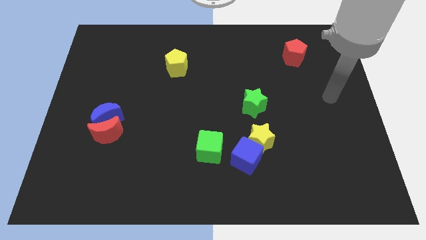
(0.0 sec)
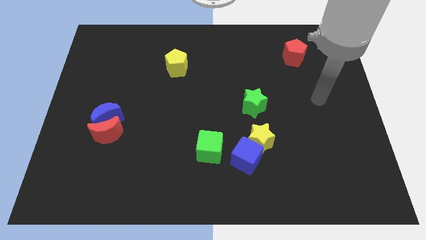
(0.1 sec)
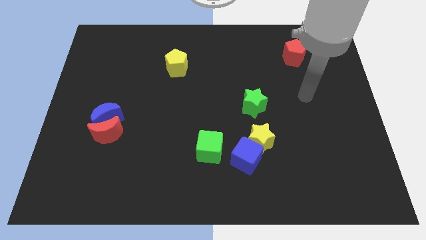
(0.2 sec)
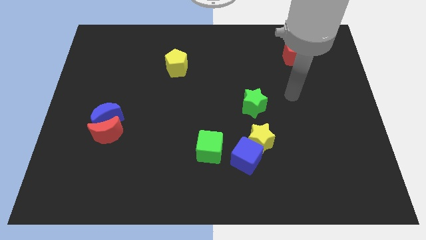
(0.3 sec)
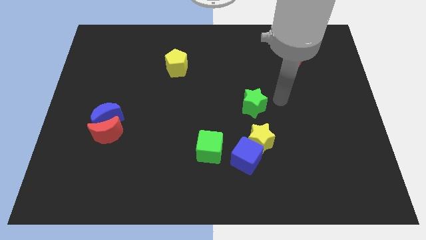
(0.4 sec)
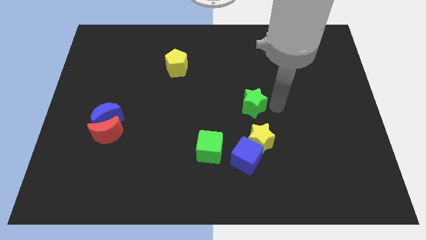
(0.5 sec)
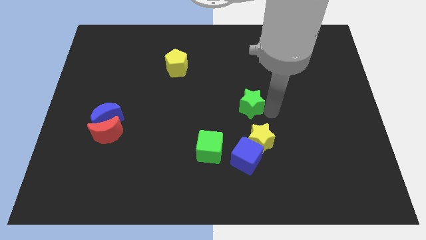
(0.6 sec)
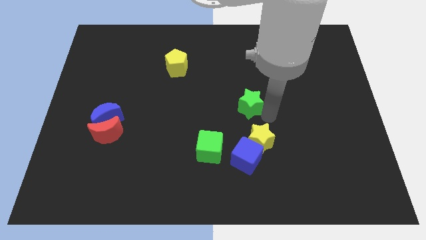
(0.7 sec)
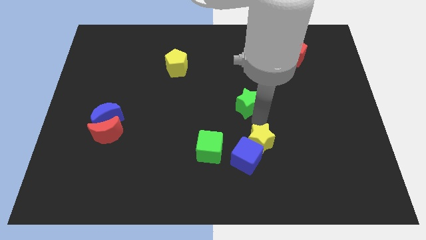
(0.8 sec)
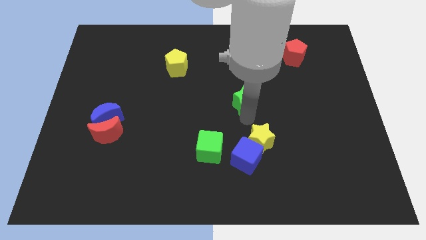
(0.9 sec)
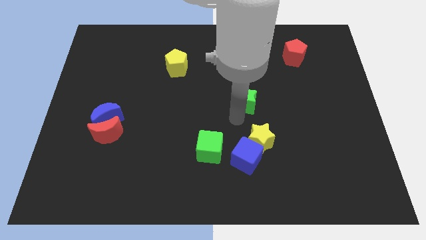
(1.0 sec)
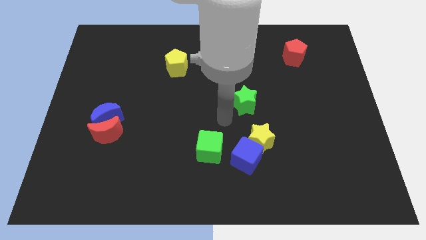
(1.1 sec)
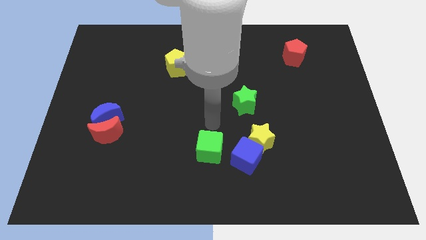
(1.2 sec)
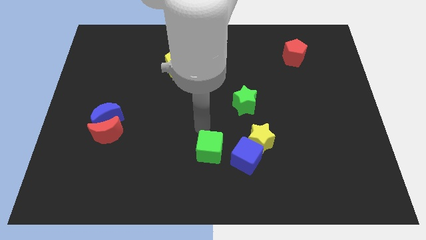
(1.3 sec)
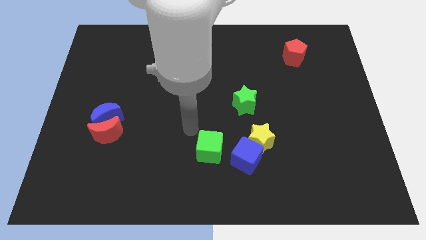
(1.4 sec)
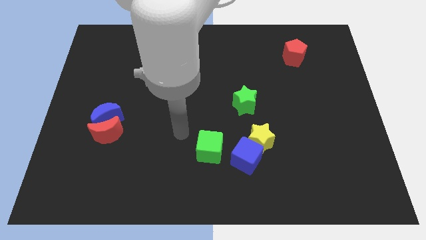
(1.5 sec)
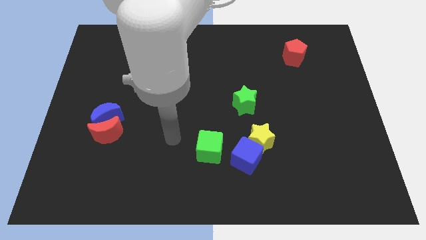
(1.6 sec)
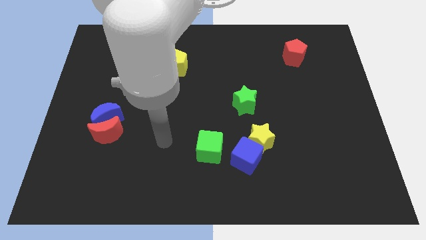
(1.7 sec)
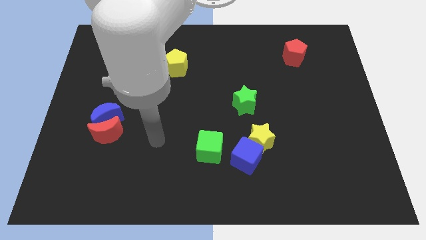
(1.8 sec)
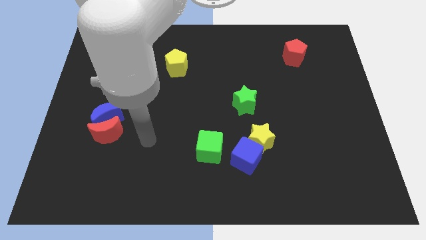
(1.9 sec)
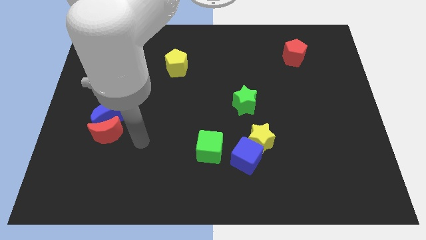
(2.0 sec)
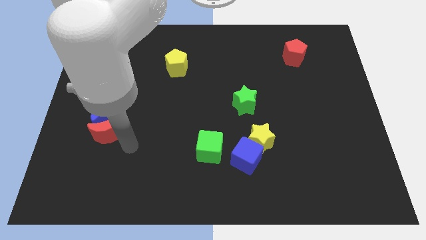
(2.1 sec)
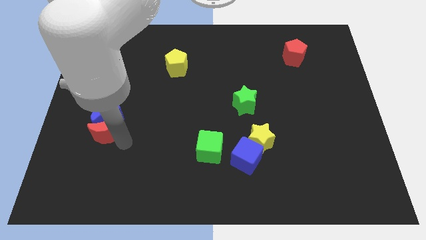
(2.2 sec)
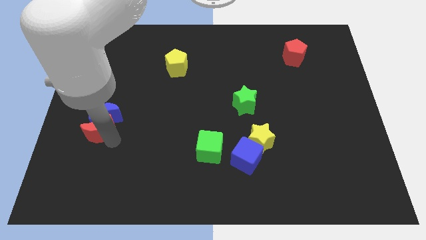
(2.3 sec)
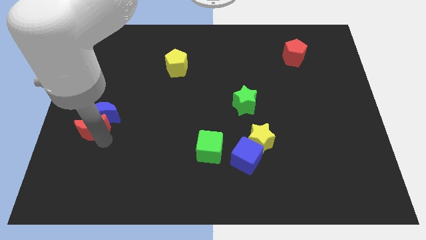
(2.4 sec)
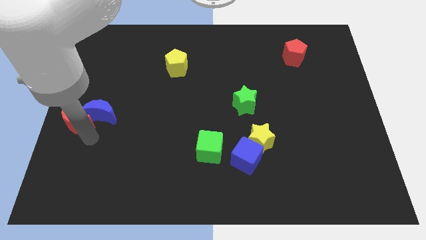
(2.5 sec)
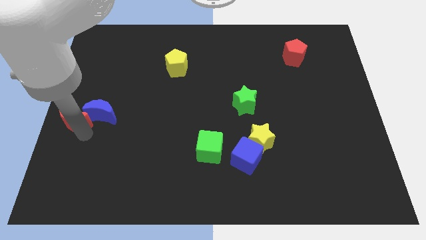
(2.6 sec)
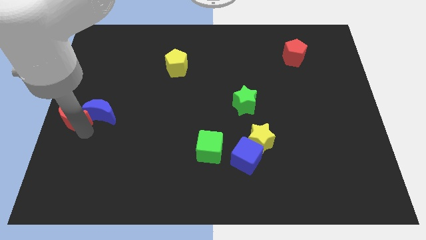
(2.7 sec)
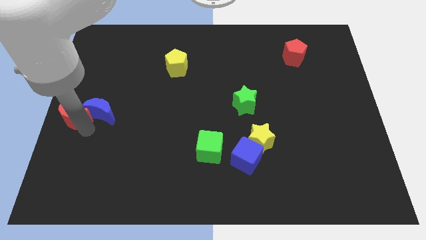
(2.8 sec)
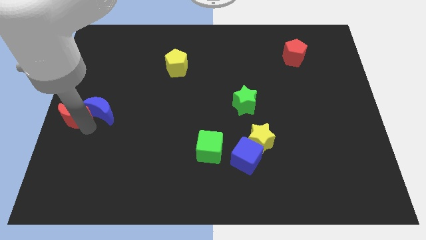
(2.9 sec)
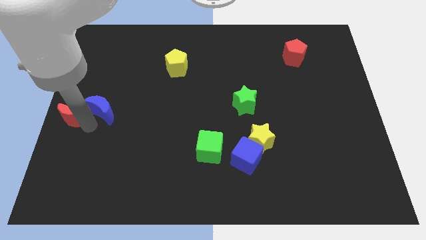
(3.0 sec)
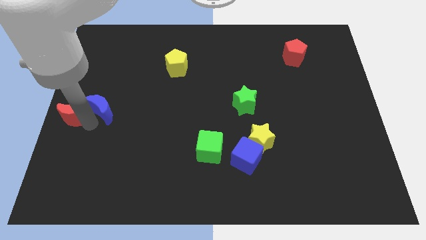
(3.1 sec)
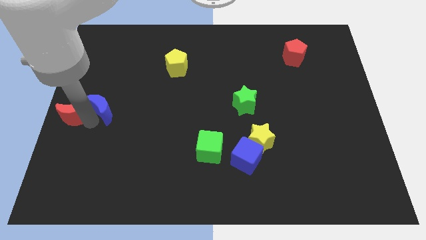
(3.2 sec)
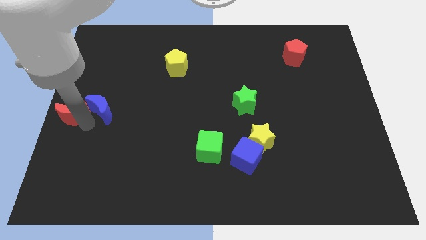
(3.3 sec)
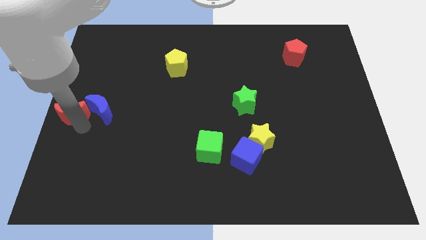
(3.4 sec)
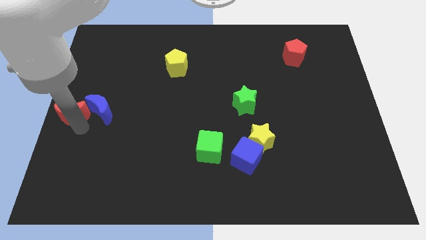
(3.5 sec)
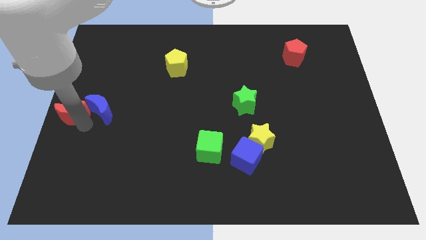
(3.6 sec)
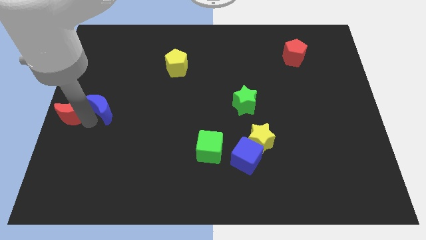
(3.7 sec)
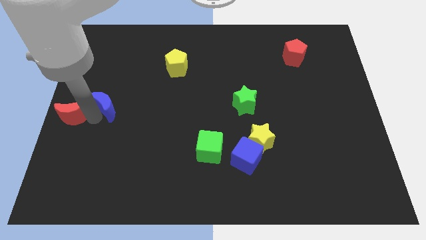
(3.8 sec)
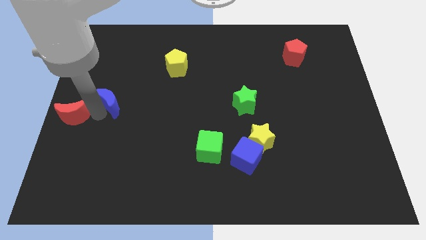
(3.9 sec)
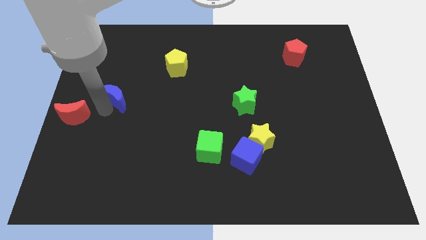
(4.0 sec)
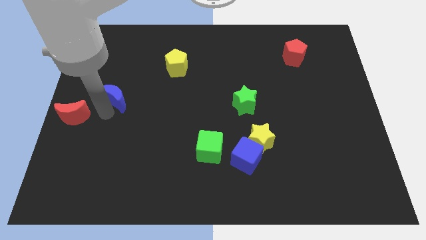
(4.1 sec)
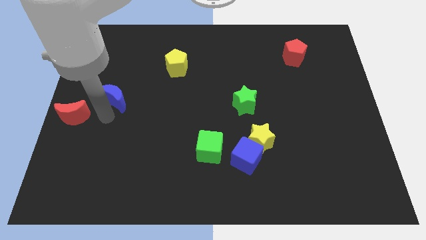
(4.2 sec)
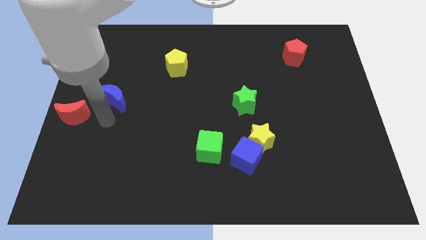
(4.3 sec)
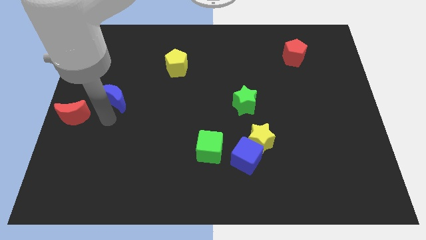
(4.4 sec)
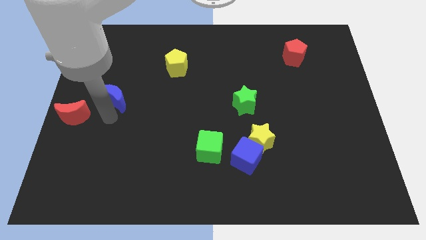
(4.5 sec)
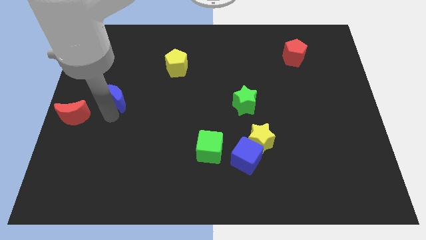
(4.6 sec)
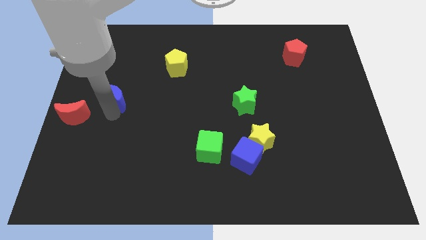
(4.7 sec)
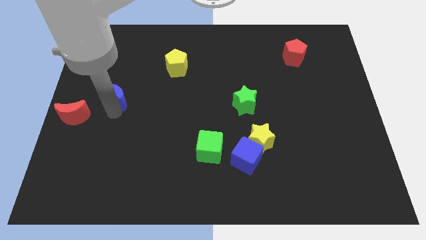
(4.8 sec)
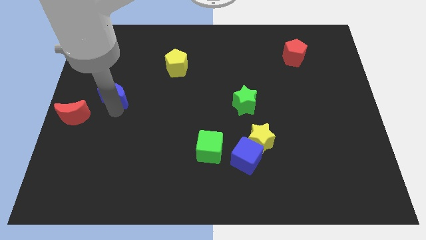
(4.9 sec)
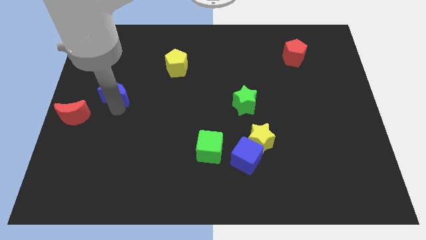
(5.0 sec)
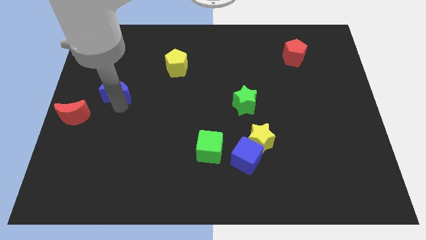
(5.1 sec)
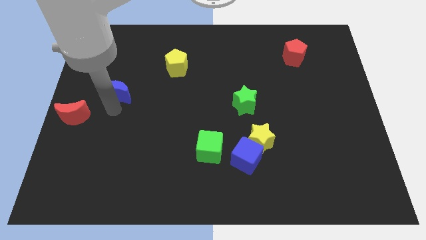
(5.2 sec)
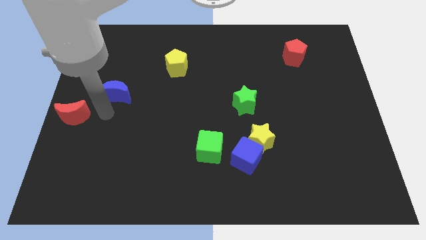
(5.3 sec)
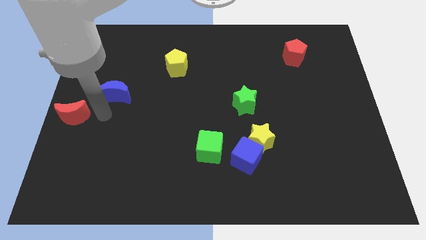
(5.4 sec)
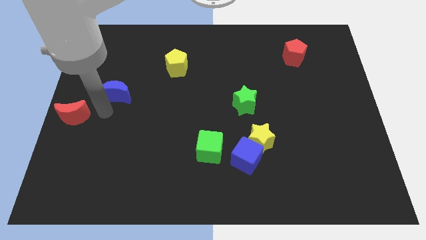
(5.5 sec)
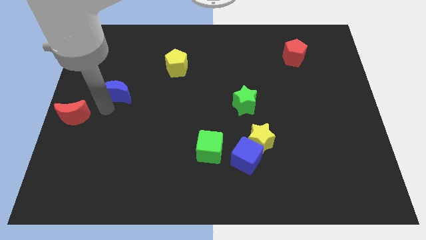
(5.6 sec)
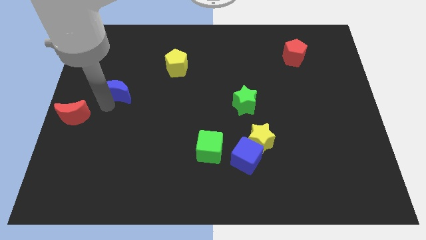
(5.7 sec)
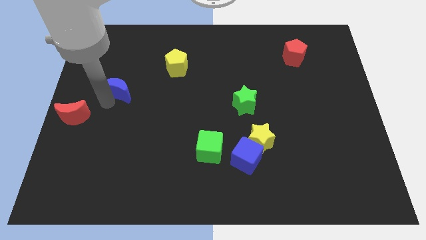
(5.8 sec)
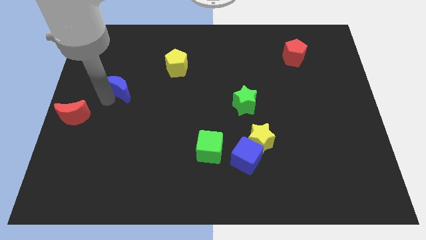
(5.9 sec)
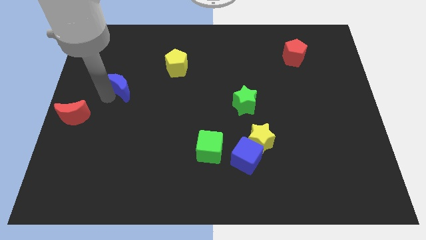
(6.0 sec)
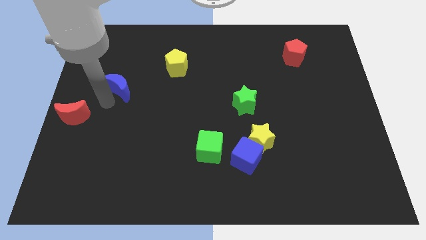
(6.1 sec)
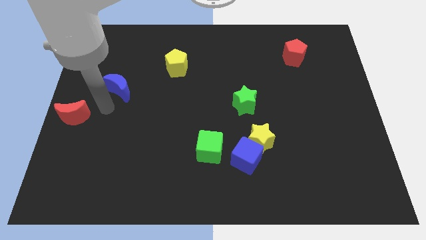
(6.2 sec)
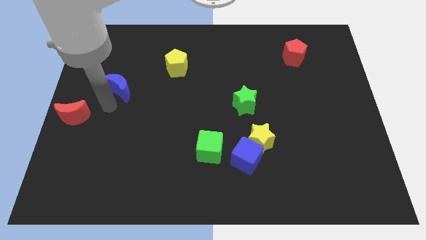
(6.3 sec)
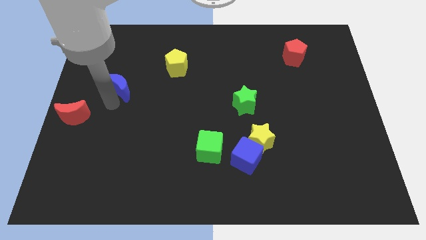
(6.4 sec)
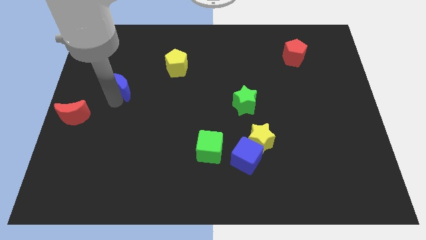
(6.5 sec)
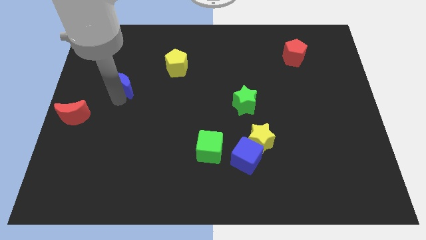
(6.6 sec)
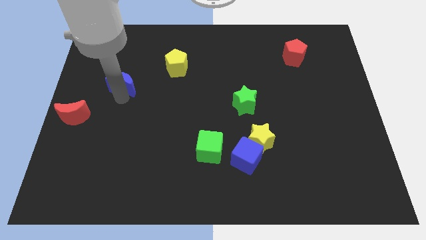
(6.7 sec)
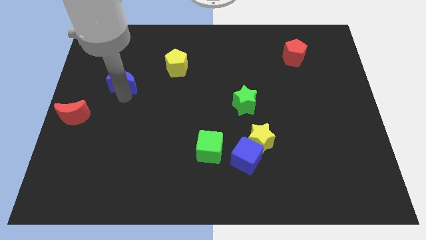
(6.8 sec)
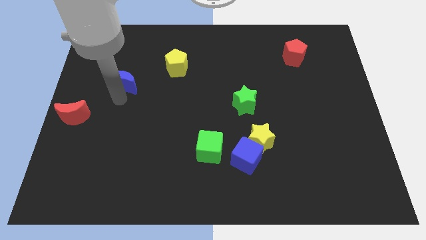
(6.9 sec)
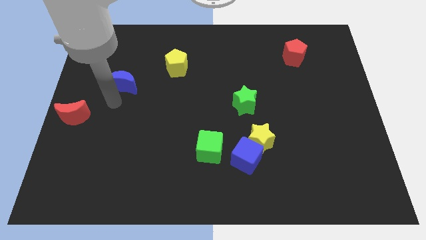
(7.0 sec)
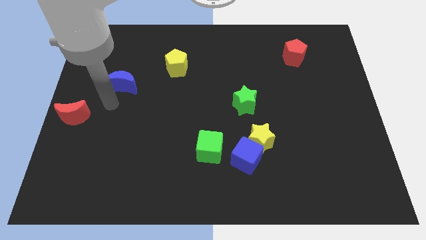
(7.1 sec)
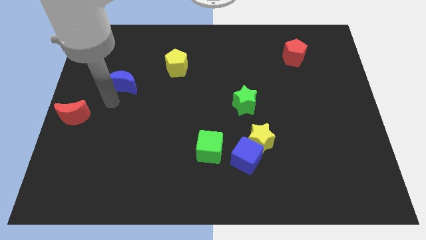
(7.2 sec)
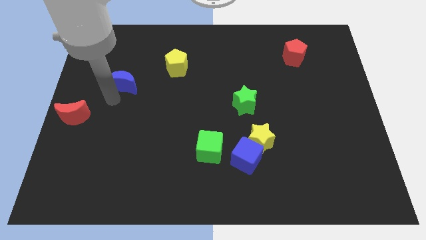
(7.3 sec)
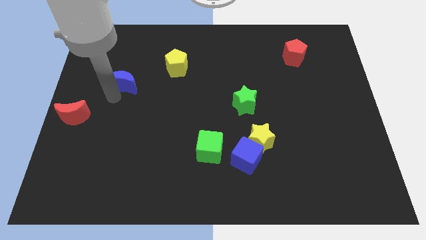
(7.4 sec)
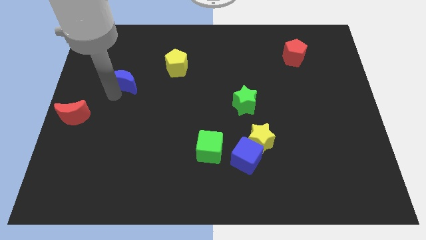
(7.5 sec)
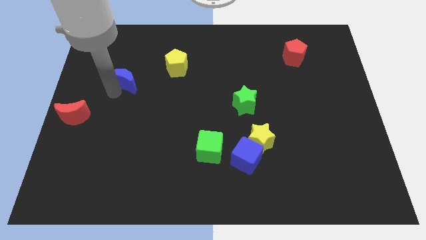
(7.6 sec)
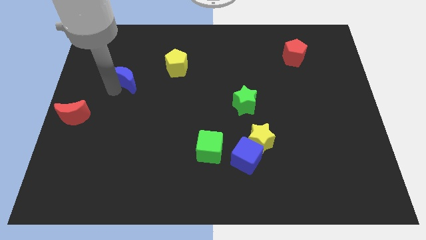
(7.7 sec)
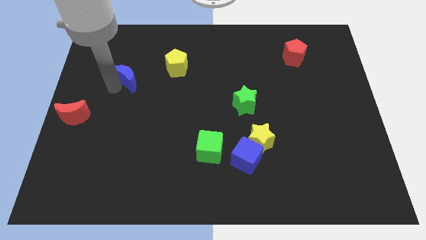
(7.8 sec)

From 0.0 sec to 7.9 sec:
put the blue moon left of the yellow pentagon
